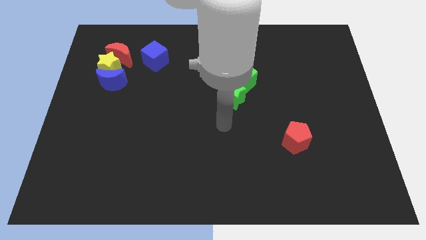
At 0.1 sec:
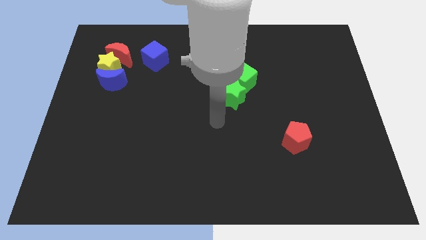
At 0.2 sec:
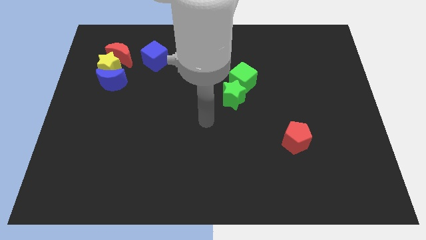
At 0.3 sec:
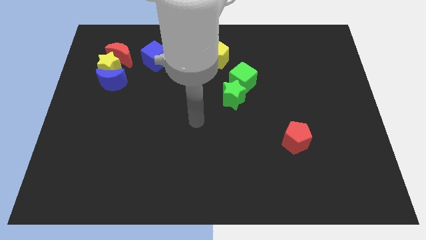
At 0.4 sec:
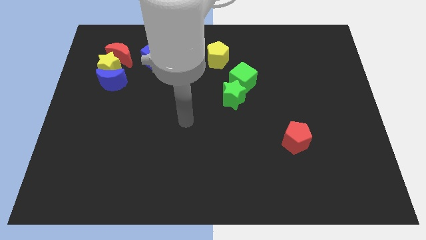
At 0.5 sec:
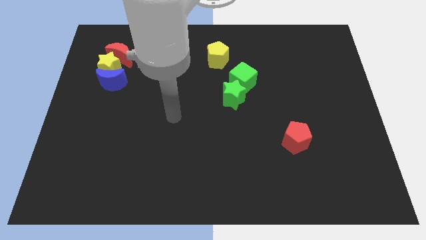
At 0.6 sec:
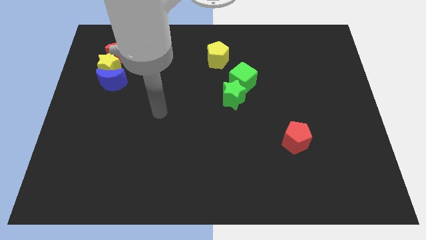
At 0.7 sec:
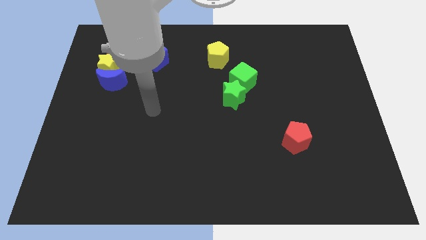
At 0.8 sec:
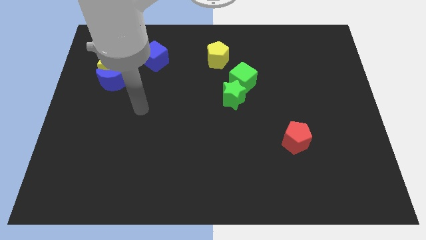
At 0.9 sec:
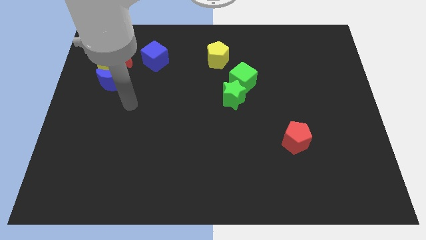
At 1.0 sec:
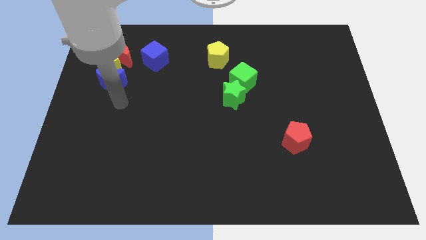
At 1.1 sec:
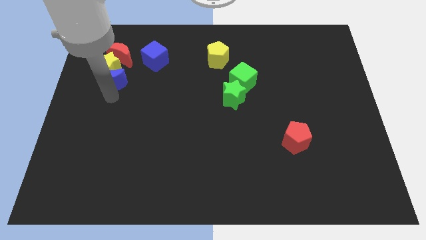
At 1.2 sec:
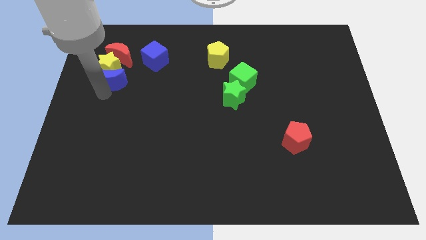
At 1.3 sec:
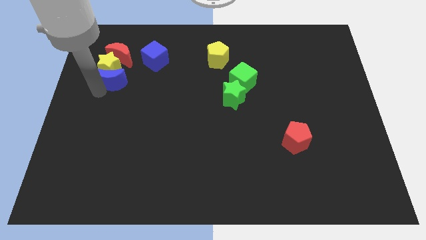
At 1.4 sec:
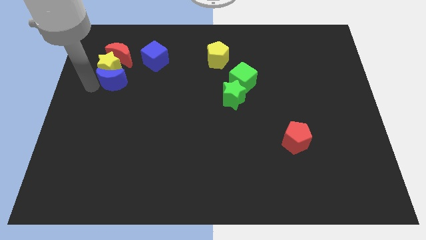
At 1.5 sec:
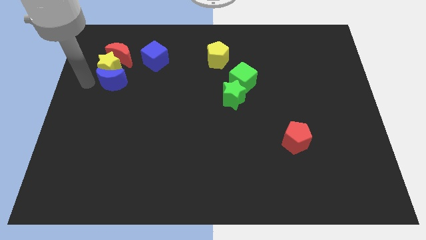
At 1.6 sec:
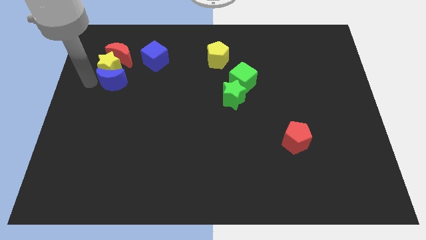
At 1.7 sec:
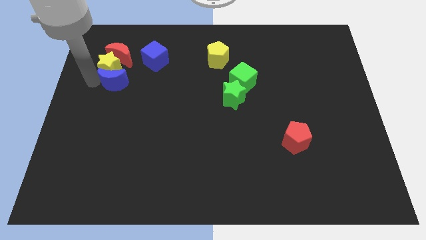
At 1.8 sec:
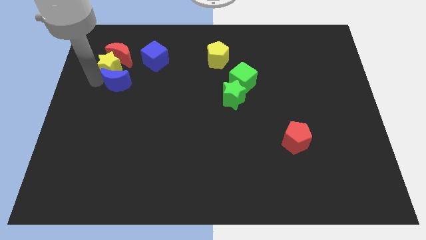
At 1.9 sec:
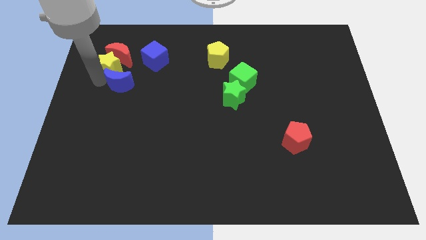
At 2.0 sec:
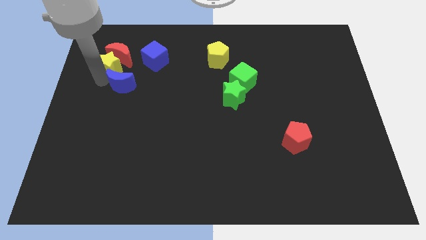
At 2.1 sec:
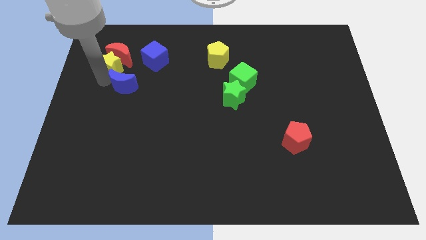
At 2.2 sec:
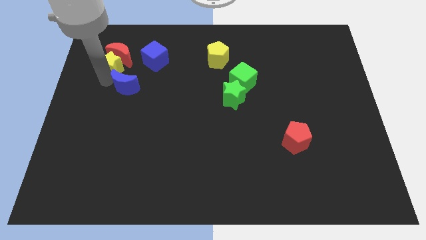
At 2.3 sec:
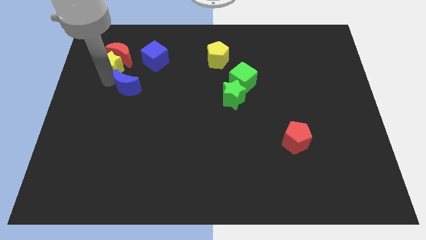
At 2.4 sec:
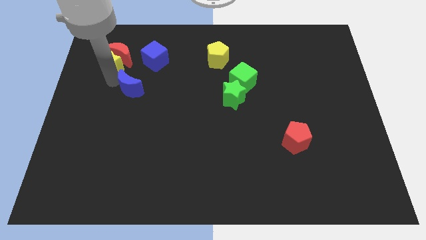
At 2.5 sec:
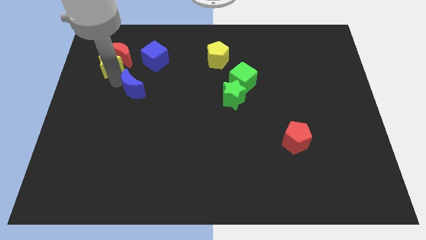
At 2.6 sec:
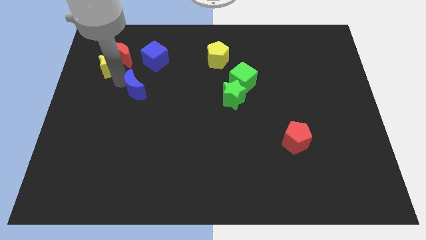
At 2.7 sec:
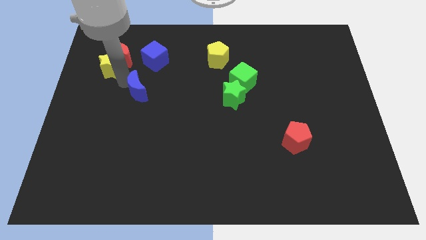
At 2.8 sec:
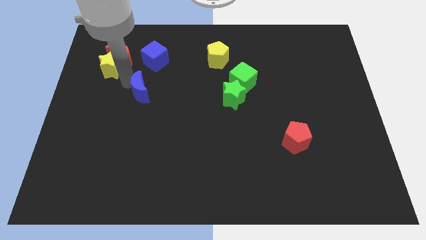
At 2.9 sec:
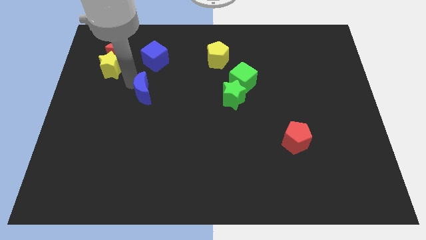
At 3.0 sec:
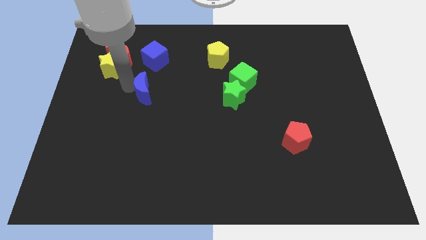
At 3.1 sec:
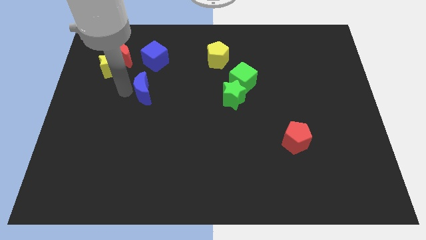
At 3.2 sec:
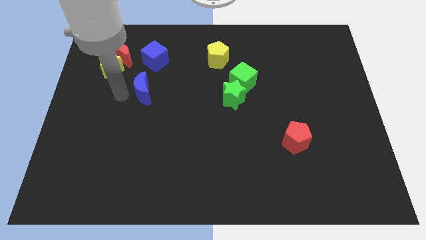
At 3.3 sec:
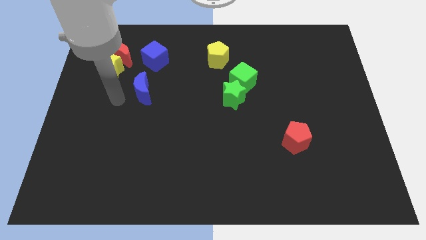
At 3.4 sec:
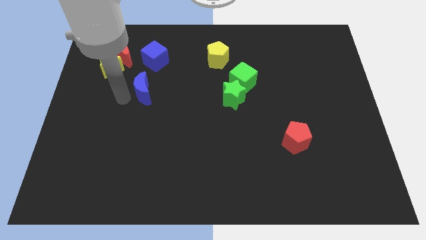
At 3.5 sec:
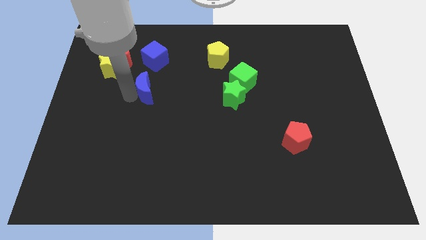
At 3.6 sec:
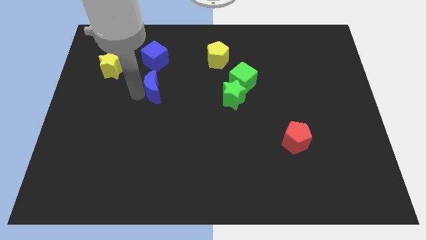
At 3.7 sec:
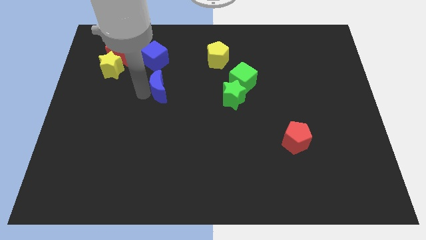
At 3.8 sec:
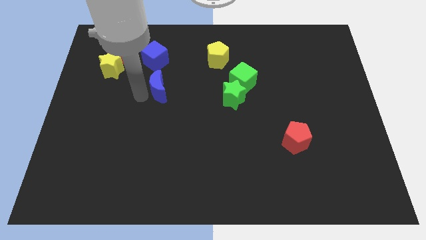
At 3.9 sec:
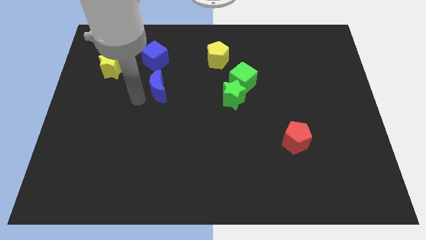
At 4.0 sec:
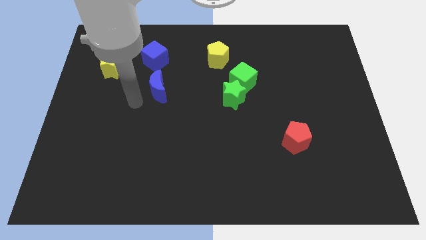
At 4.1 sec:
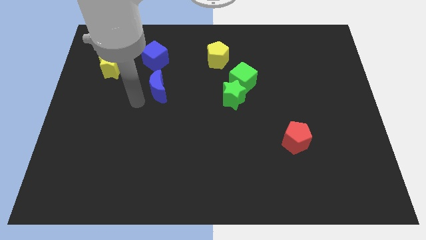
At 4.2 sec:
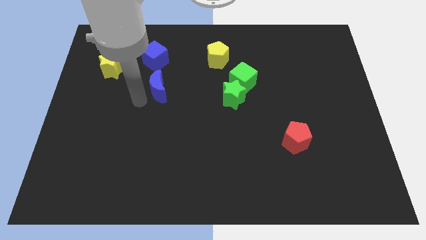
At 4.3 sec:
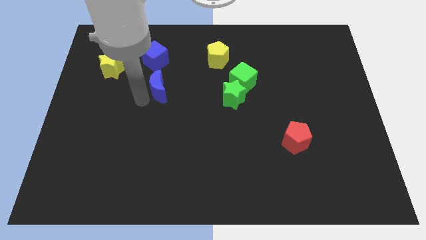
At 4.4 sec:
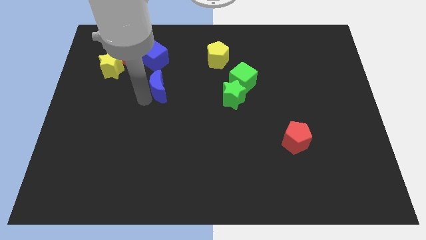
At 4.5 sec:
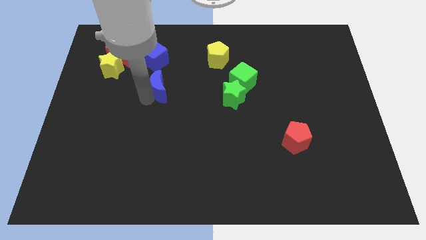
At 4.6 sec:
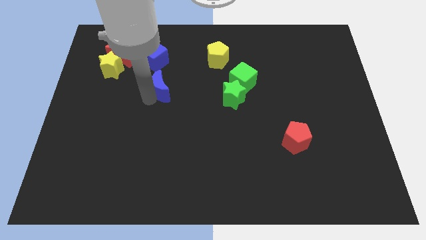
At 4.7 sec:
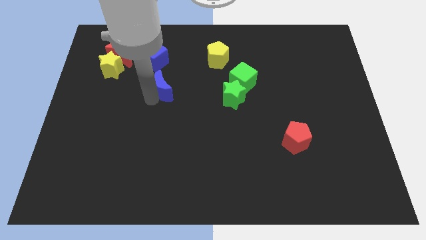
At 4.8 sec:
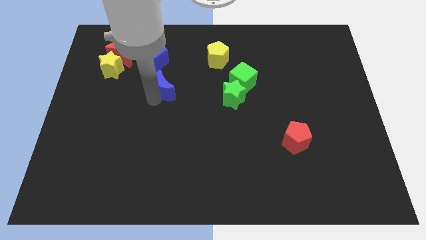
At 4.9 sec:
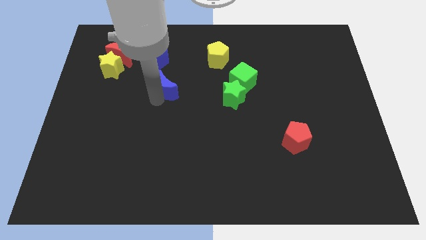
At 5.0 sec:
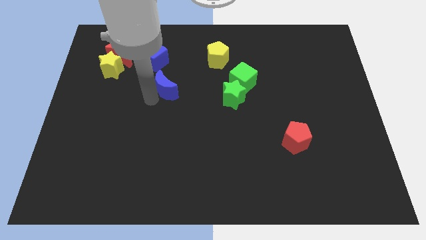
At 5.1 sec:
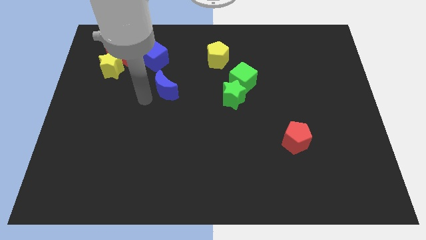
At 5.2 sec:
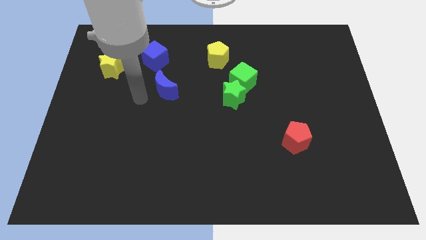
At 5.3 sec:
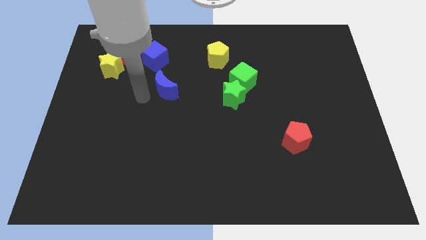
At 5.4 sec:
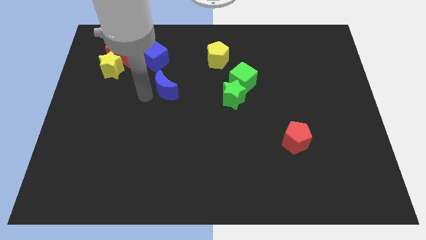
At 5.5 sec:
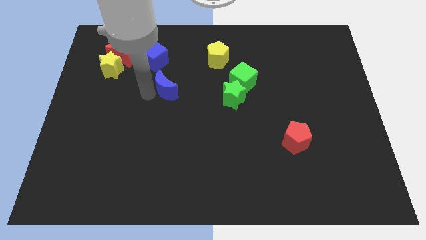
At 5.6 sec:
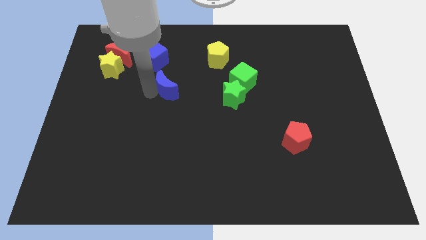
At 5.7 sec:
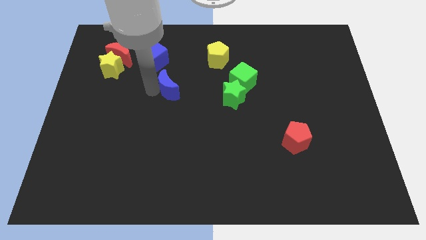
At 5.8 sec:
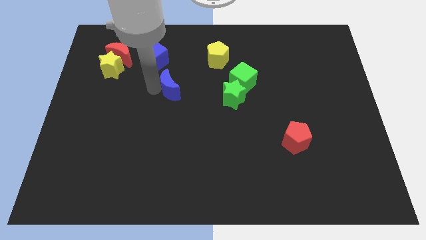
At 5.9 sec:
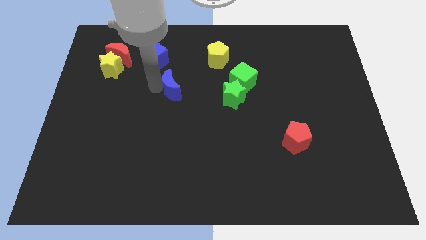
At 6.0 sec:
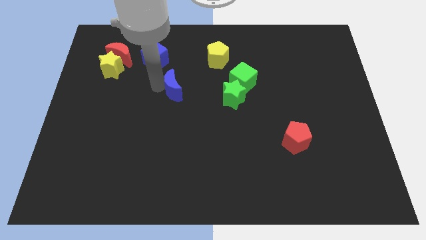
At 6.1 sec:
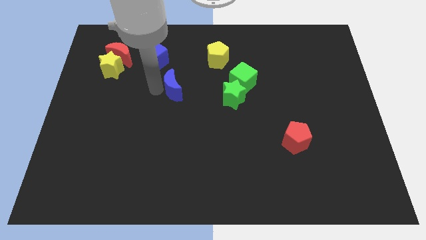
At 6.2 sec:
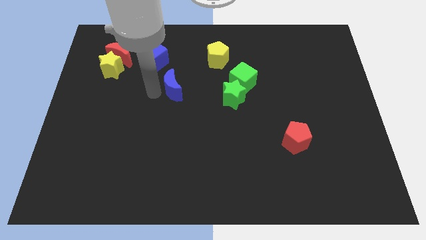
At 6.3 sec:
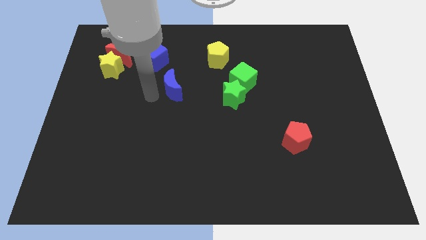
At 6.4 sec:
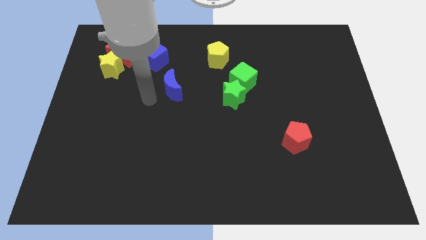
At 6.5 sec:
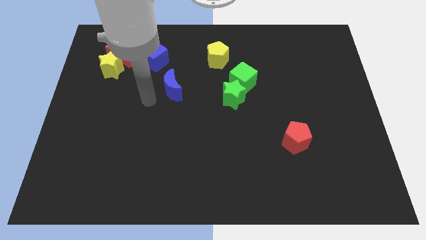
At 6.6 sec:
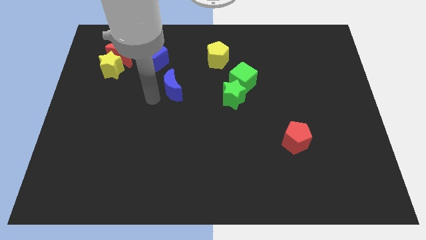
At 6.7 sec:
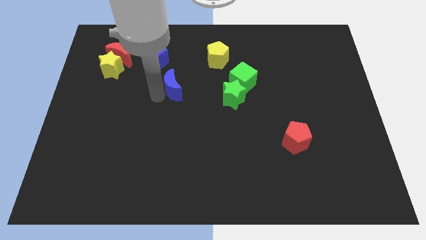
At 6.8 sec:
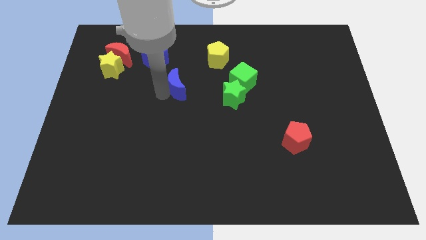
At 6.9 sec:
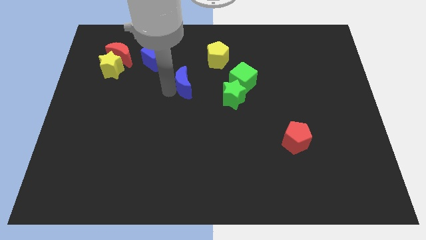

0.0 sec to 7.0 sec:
push the blue moon left of the green cube

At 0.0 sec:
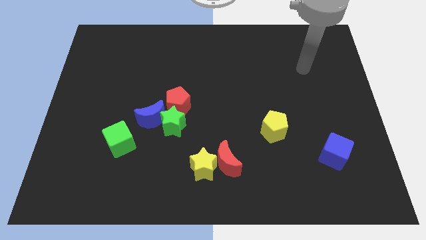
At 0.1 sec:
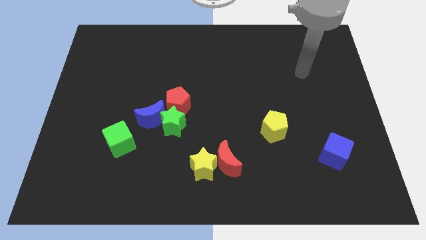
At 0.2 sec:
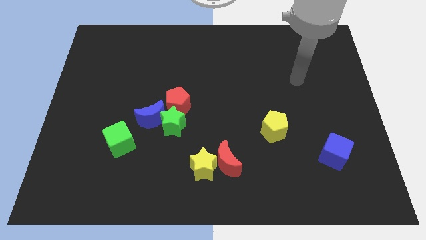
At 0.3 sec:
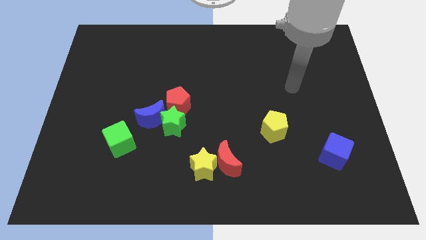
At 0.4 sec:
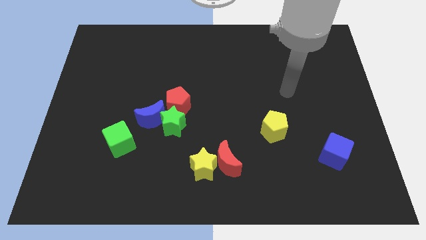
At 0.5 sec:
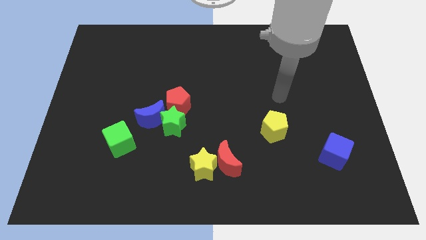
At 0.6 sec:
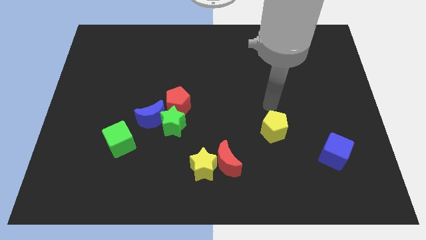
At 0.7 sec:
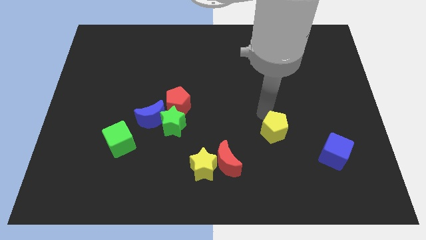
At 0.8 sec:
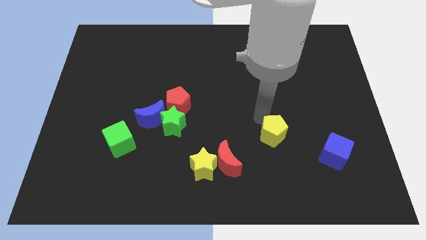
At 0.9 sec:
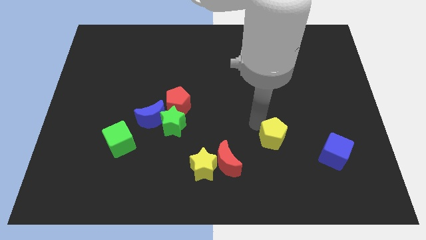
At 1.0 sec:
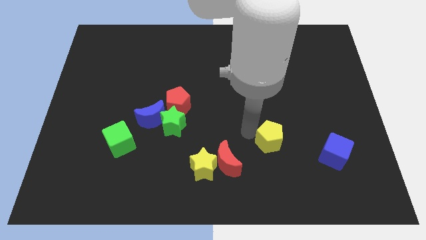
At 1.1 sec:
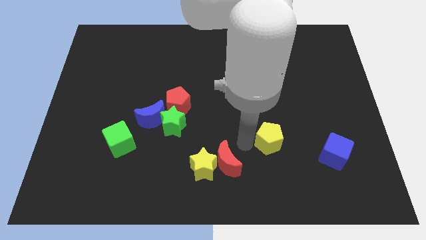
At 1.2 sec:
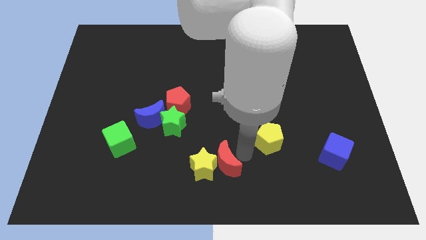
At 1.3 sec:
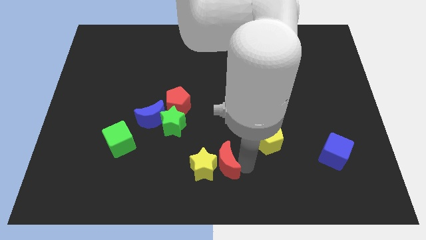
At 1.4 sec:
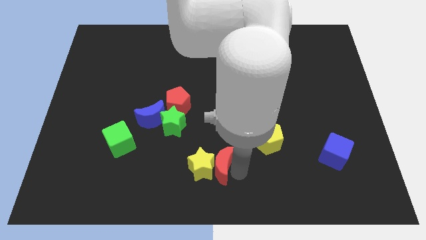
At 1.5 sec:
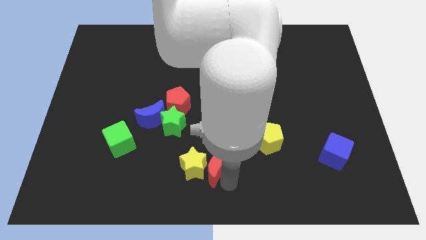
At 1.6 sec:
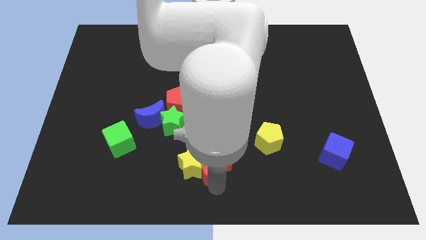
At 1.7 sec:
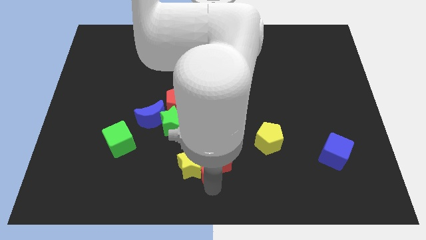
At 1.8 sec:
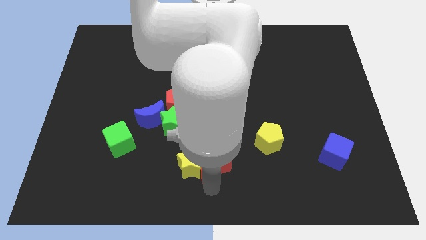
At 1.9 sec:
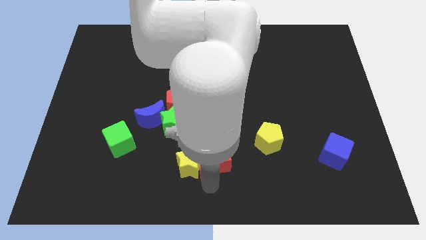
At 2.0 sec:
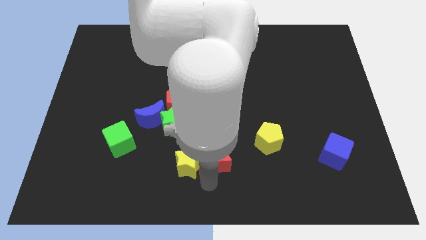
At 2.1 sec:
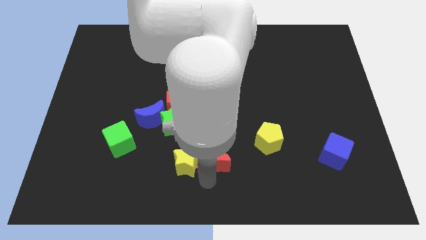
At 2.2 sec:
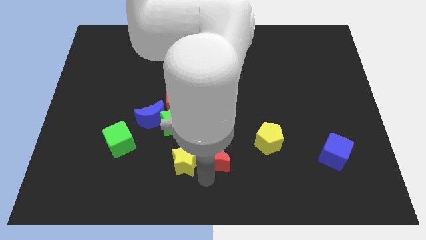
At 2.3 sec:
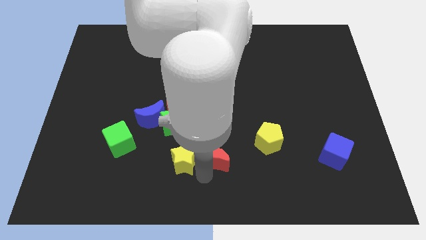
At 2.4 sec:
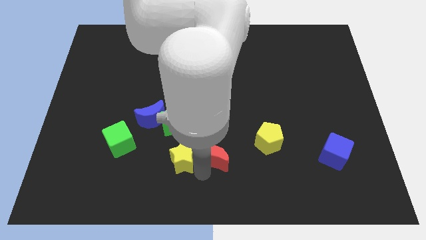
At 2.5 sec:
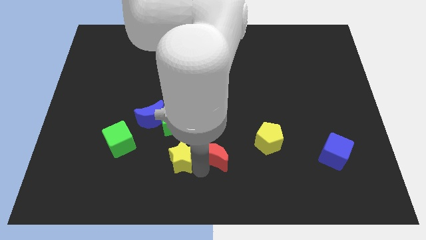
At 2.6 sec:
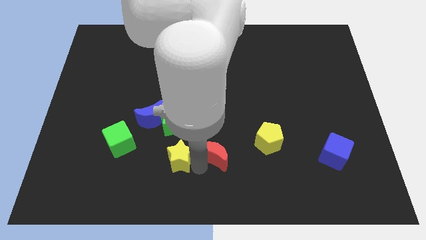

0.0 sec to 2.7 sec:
push the yellow star to the right side of the green cube
